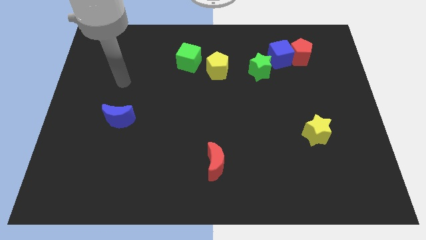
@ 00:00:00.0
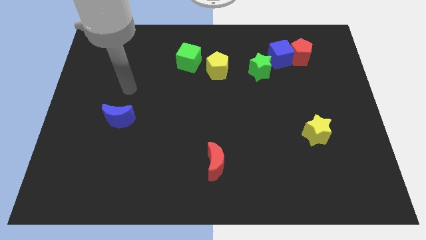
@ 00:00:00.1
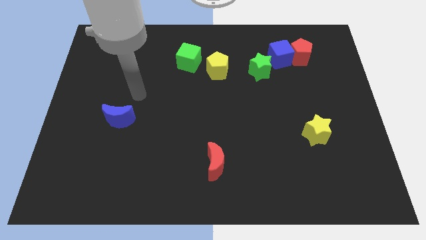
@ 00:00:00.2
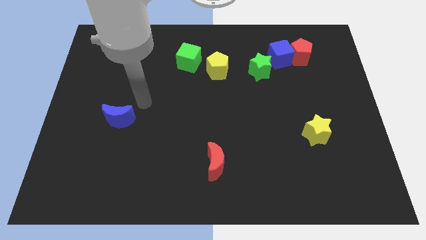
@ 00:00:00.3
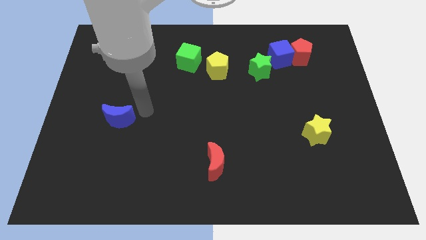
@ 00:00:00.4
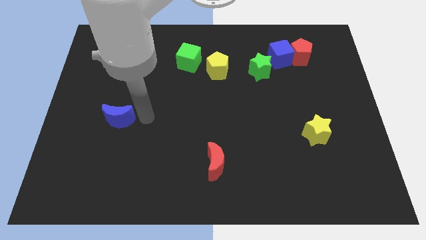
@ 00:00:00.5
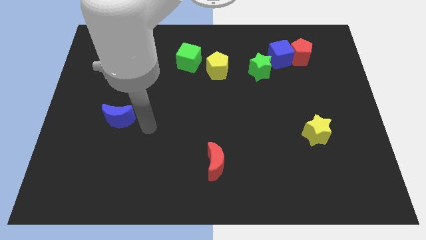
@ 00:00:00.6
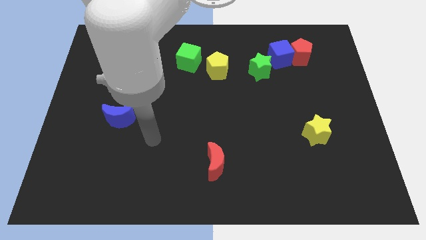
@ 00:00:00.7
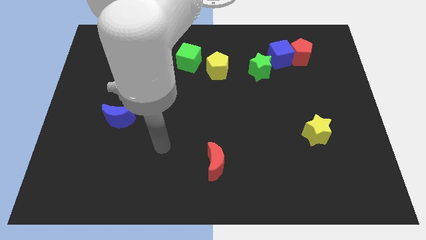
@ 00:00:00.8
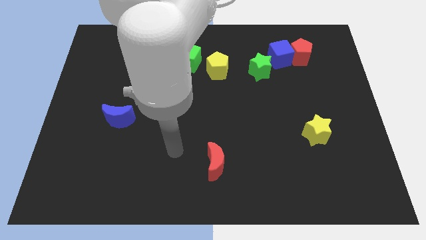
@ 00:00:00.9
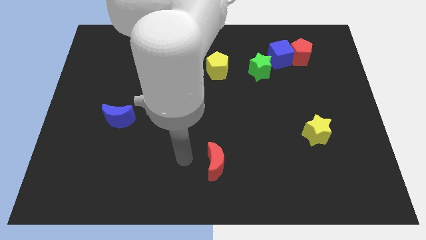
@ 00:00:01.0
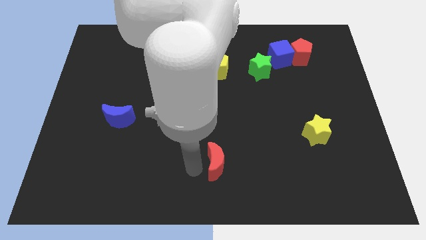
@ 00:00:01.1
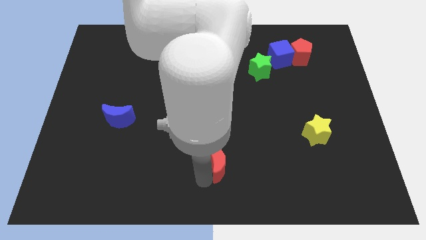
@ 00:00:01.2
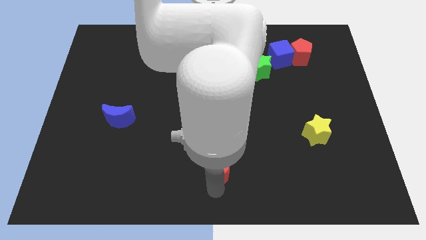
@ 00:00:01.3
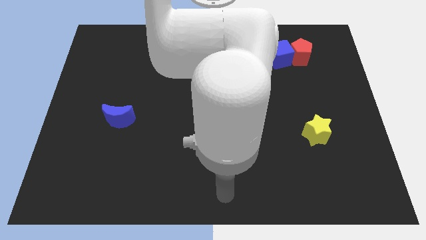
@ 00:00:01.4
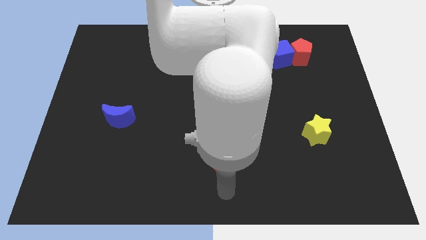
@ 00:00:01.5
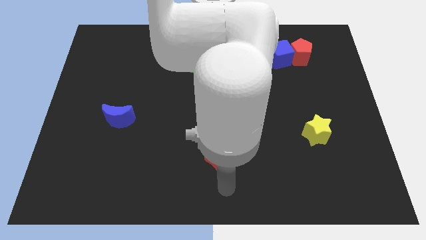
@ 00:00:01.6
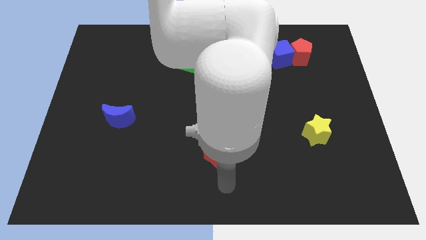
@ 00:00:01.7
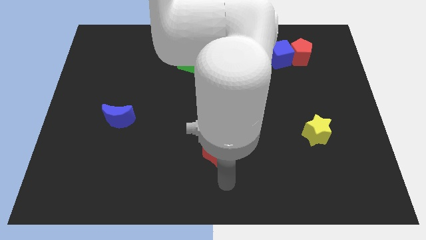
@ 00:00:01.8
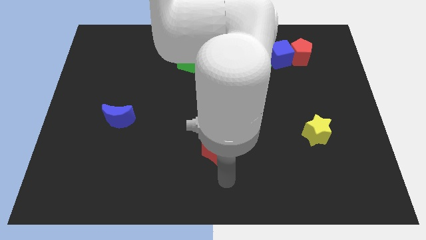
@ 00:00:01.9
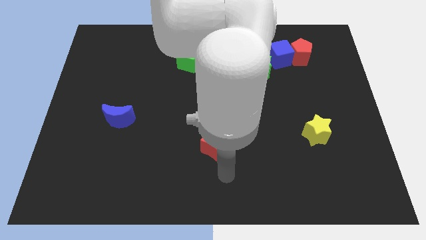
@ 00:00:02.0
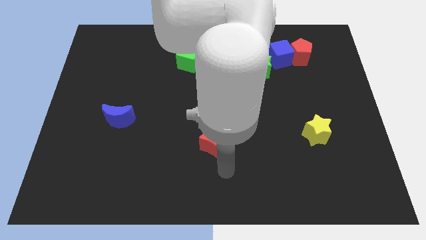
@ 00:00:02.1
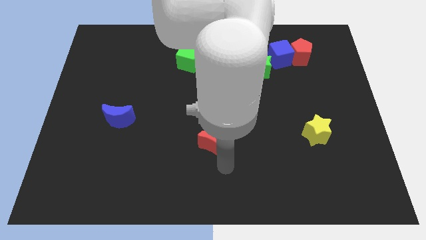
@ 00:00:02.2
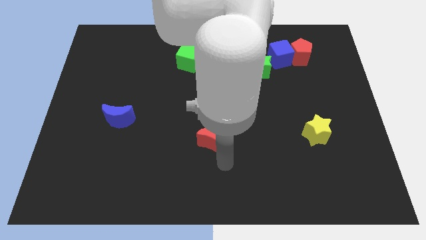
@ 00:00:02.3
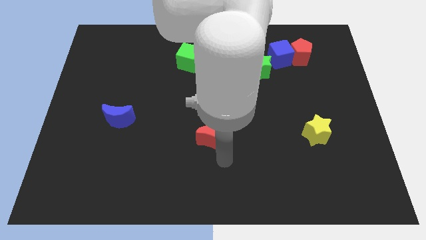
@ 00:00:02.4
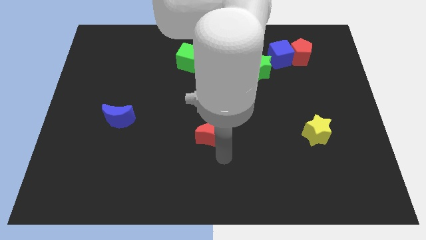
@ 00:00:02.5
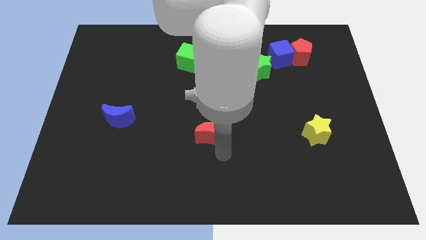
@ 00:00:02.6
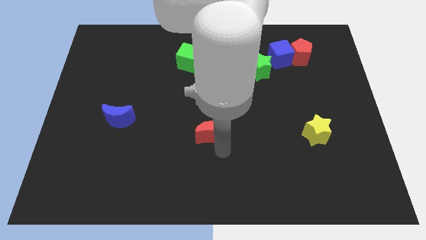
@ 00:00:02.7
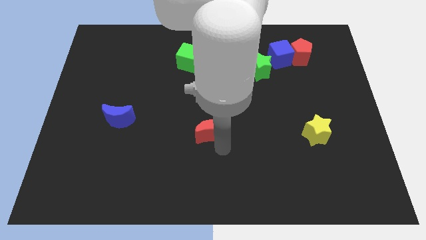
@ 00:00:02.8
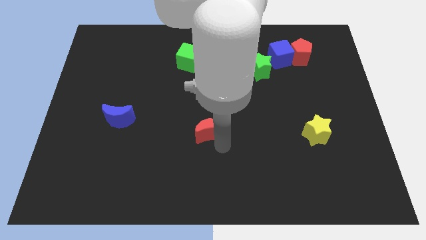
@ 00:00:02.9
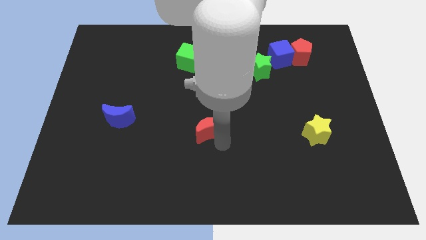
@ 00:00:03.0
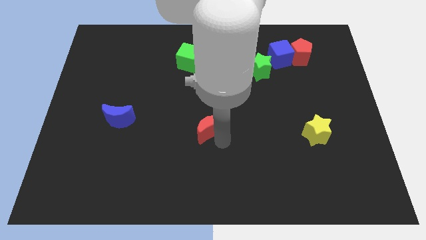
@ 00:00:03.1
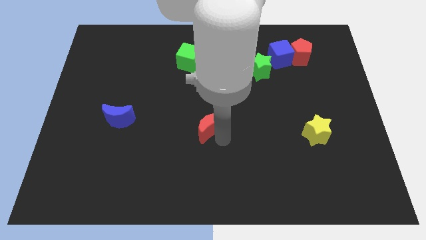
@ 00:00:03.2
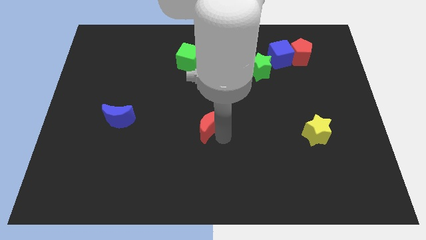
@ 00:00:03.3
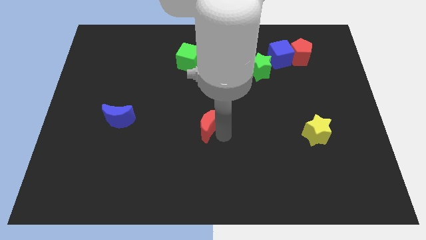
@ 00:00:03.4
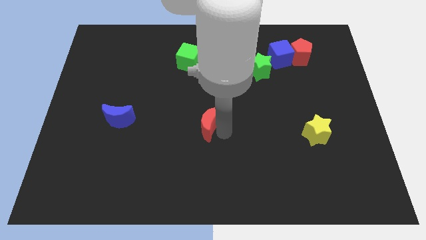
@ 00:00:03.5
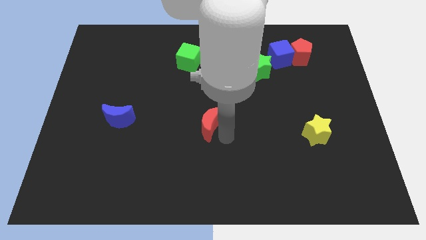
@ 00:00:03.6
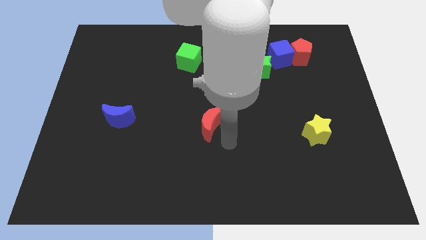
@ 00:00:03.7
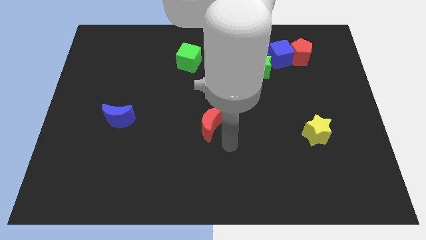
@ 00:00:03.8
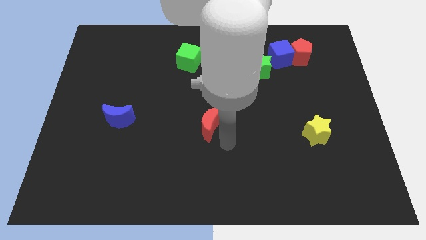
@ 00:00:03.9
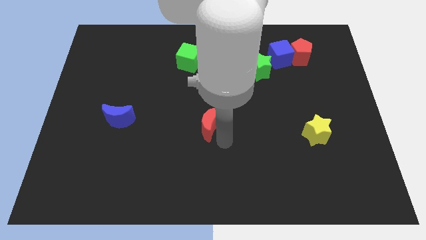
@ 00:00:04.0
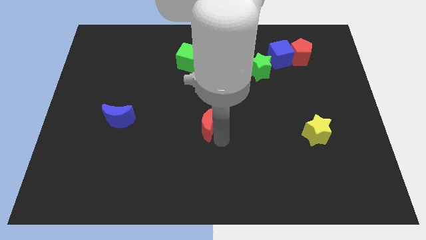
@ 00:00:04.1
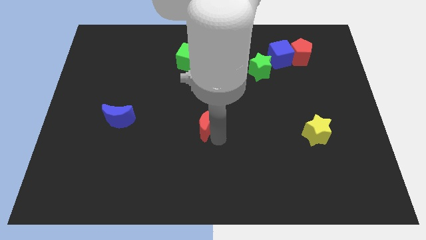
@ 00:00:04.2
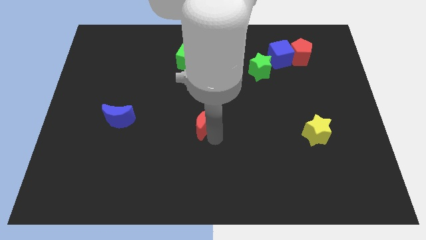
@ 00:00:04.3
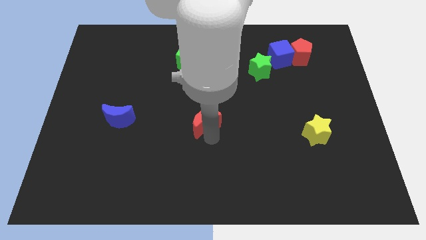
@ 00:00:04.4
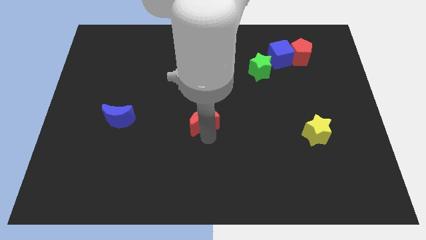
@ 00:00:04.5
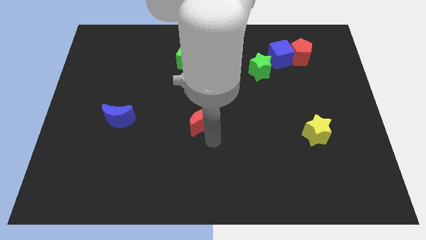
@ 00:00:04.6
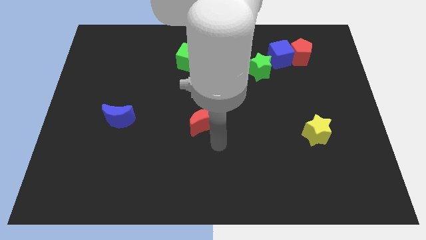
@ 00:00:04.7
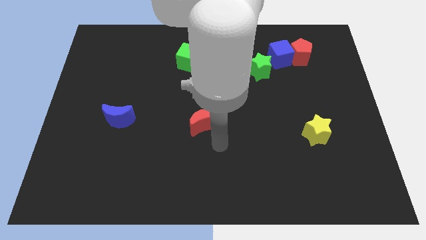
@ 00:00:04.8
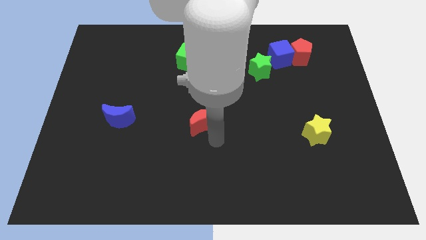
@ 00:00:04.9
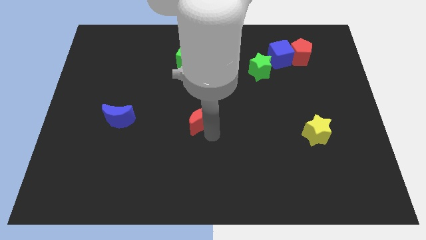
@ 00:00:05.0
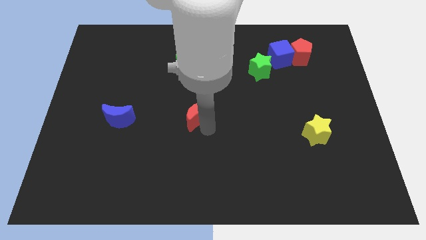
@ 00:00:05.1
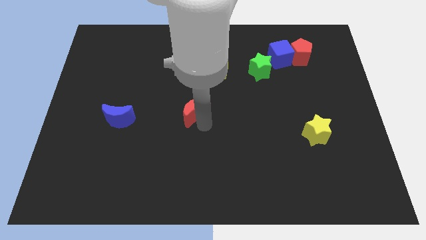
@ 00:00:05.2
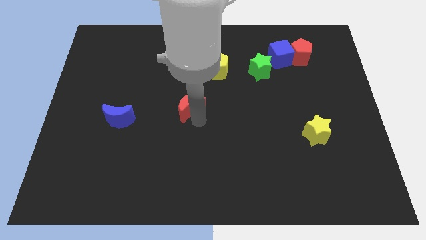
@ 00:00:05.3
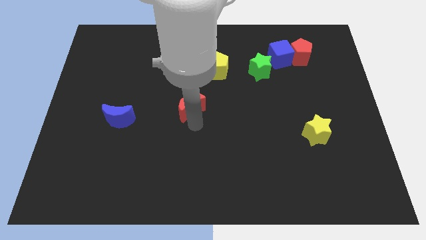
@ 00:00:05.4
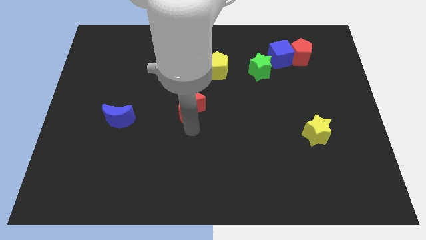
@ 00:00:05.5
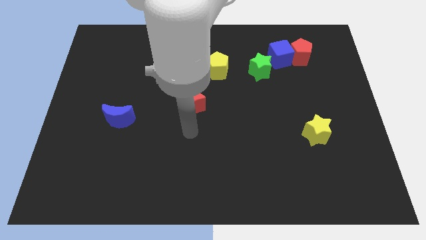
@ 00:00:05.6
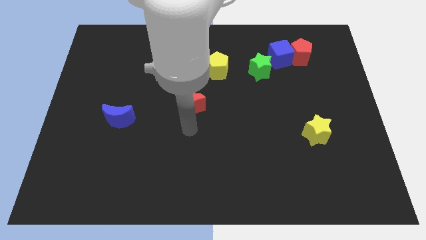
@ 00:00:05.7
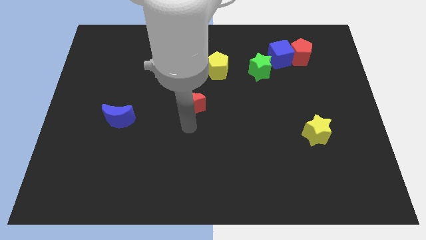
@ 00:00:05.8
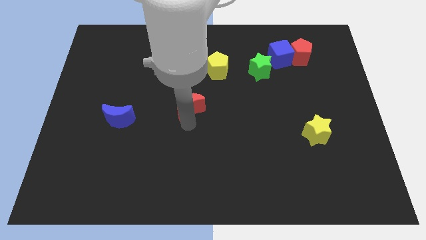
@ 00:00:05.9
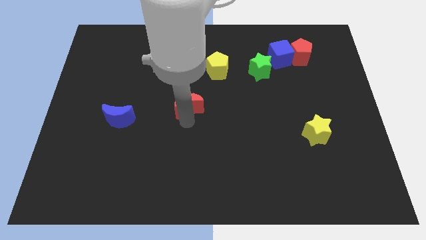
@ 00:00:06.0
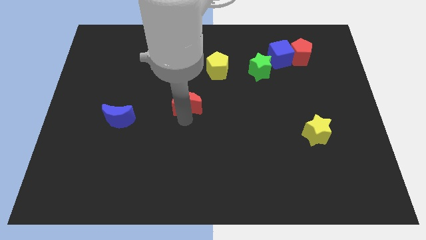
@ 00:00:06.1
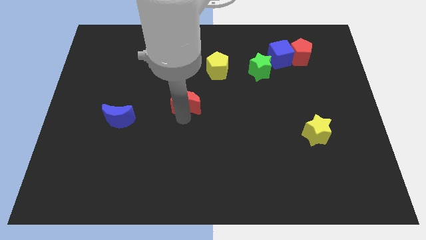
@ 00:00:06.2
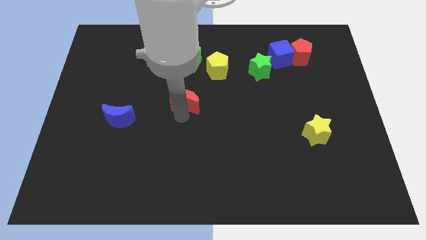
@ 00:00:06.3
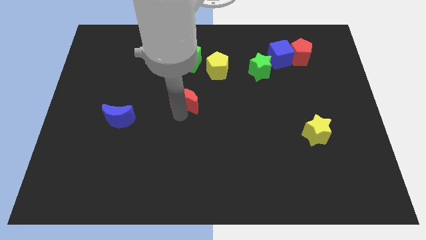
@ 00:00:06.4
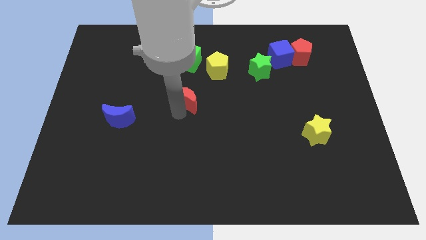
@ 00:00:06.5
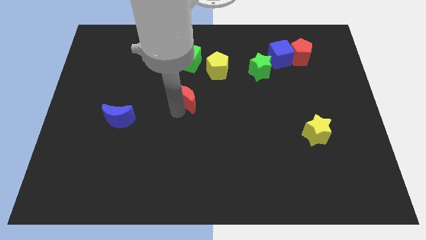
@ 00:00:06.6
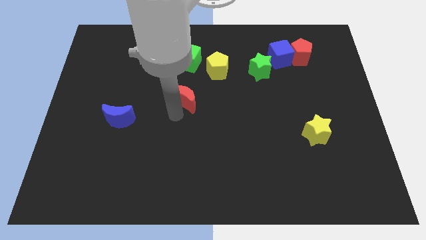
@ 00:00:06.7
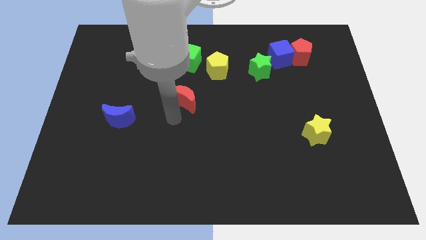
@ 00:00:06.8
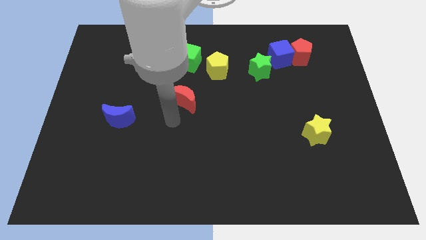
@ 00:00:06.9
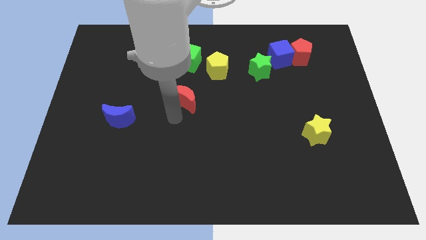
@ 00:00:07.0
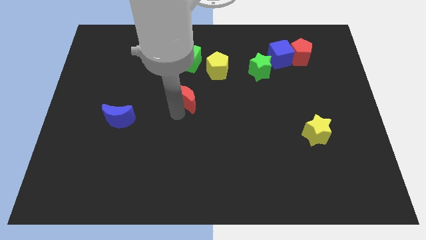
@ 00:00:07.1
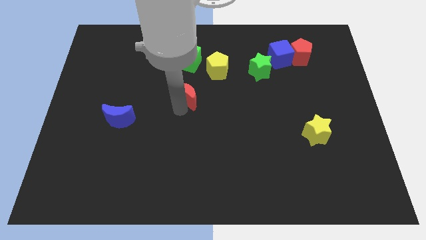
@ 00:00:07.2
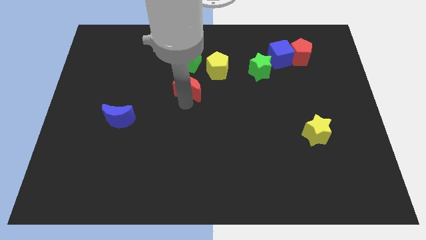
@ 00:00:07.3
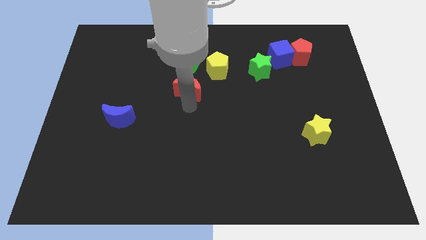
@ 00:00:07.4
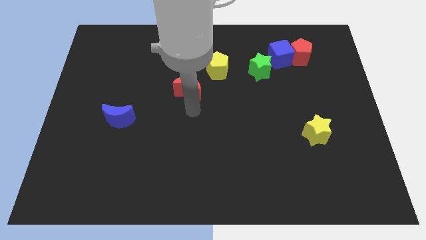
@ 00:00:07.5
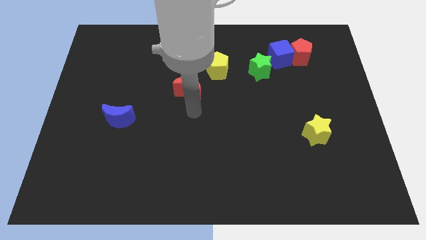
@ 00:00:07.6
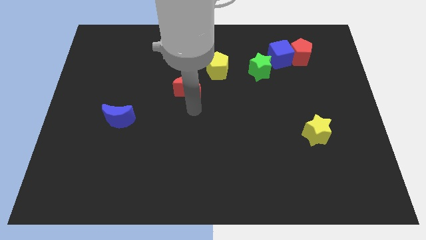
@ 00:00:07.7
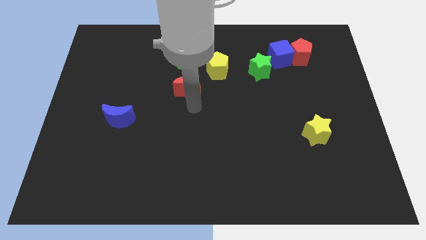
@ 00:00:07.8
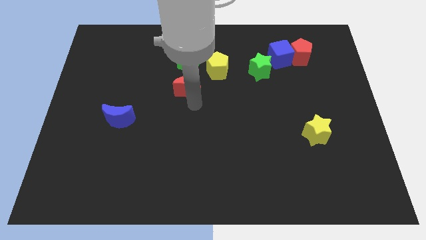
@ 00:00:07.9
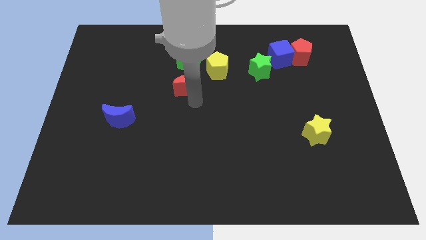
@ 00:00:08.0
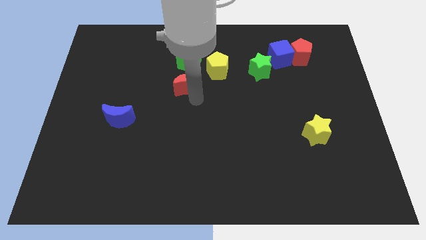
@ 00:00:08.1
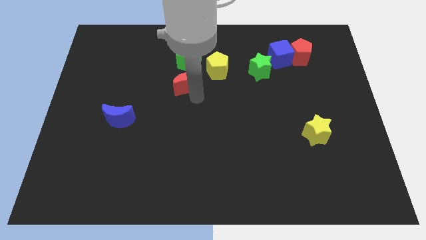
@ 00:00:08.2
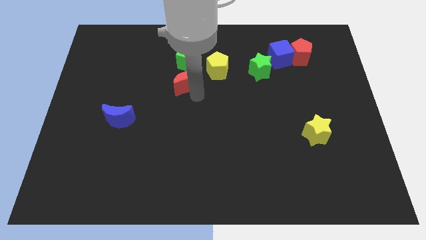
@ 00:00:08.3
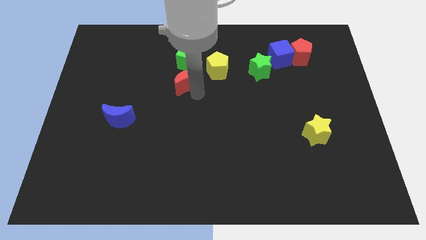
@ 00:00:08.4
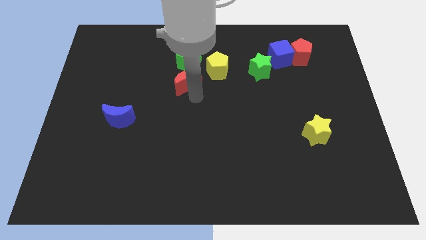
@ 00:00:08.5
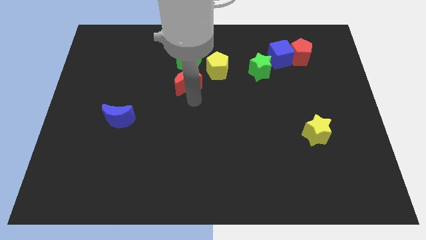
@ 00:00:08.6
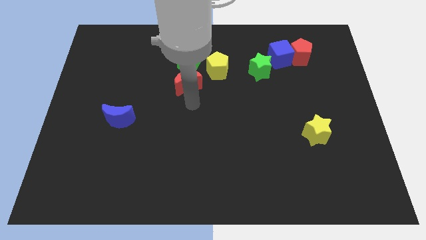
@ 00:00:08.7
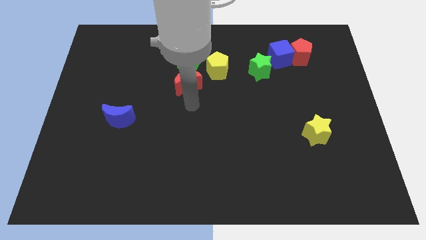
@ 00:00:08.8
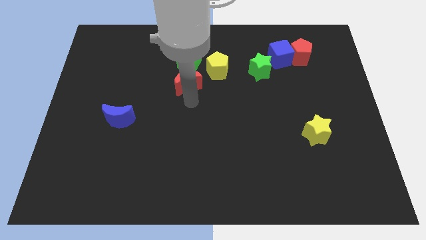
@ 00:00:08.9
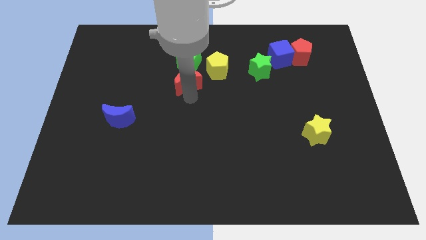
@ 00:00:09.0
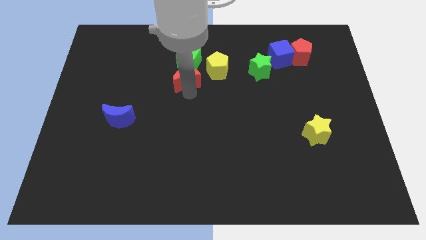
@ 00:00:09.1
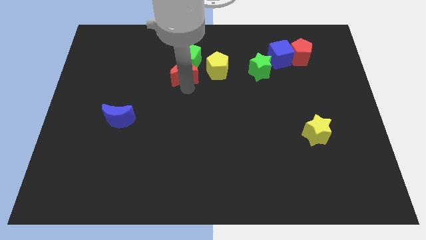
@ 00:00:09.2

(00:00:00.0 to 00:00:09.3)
put the red moon next to the green cube
